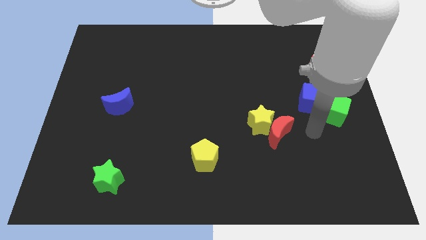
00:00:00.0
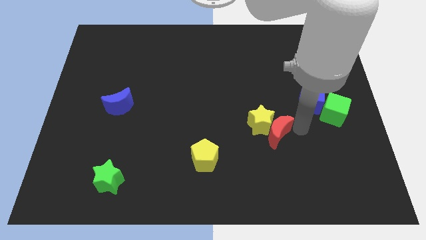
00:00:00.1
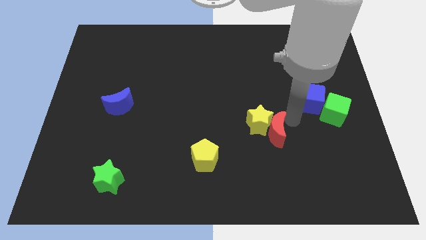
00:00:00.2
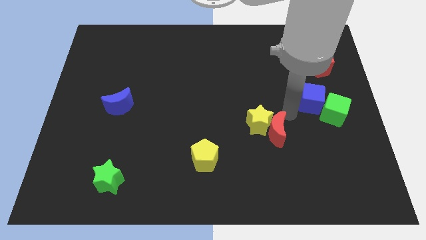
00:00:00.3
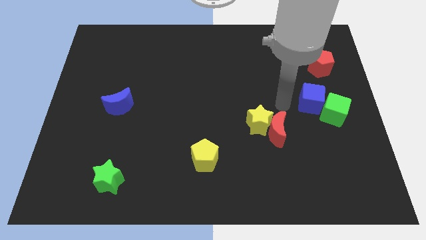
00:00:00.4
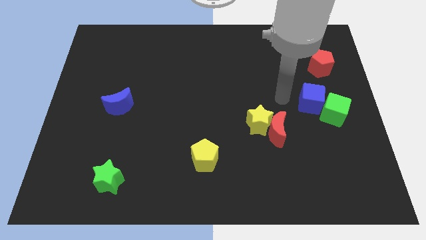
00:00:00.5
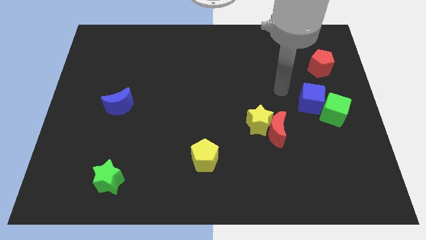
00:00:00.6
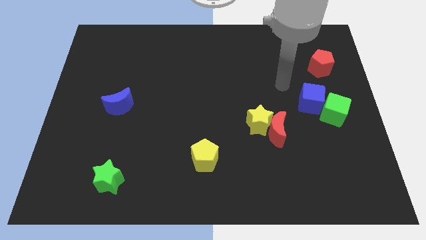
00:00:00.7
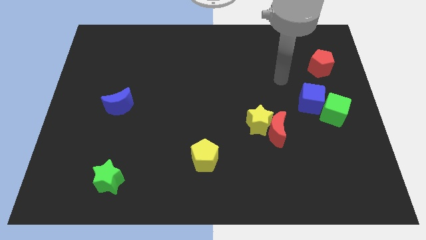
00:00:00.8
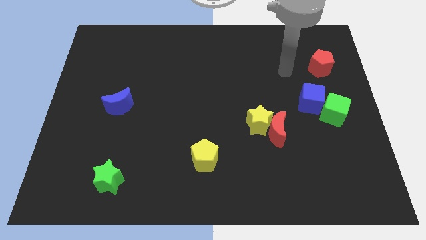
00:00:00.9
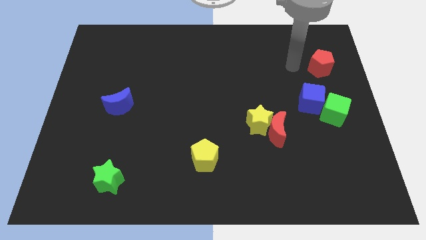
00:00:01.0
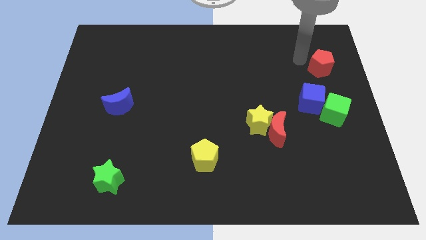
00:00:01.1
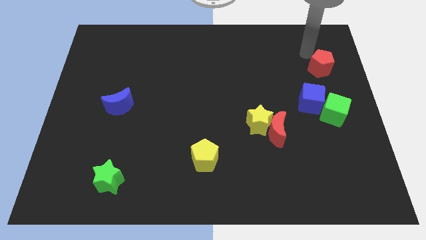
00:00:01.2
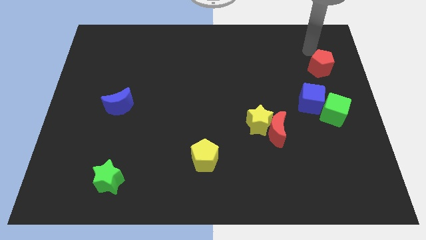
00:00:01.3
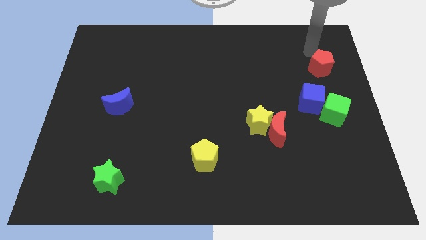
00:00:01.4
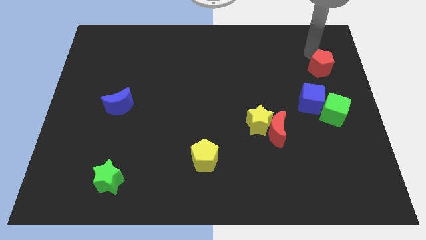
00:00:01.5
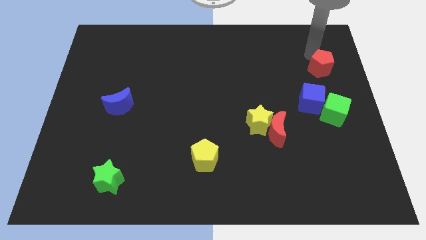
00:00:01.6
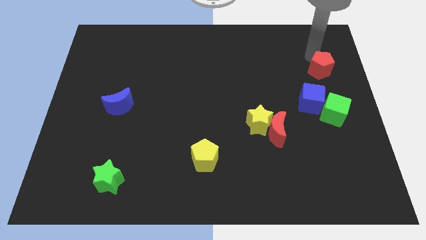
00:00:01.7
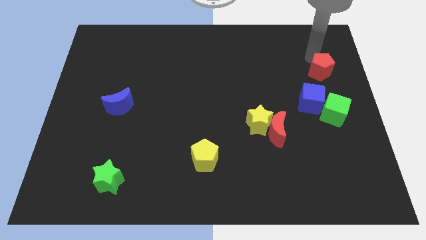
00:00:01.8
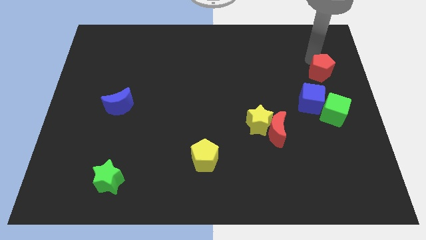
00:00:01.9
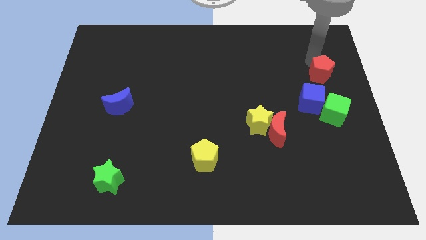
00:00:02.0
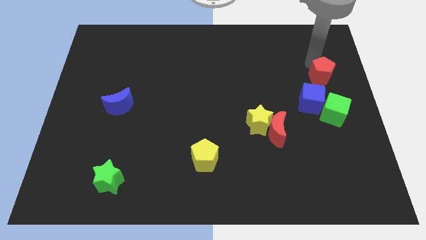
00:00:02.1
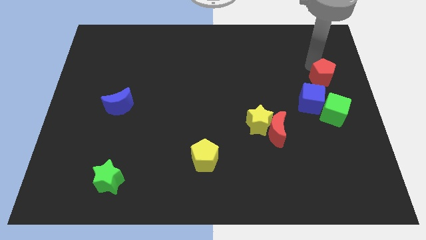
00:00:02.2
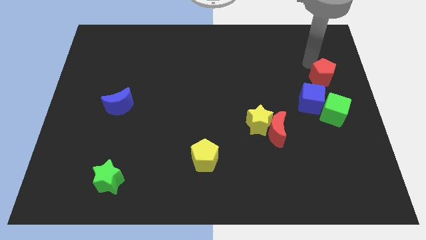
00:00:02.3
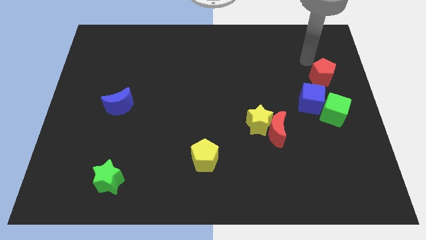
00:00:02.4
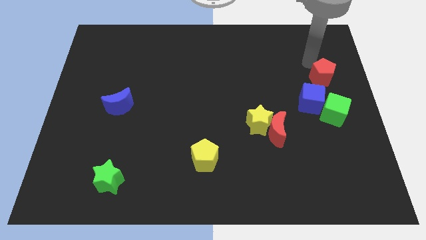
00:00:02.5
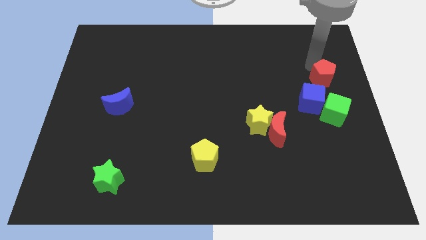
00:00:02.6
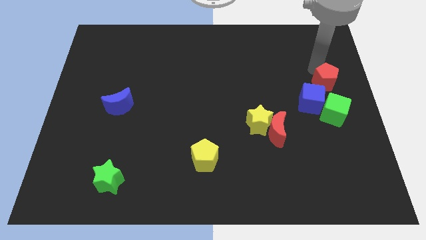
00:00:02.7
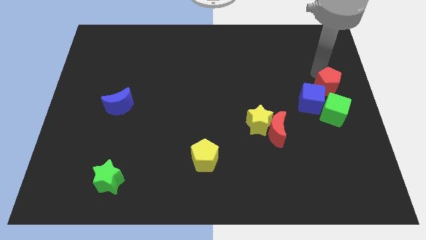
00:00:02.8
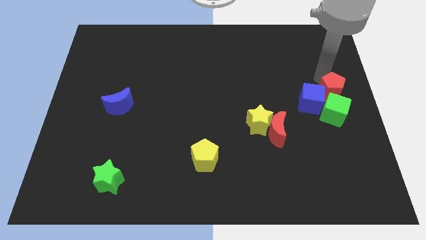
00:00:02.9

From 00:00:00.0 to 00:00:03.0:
push the red pentagon somewhat downwards

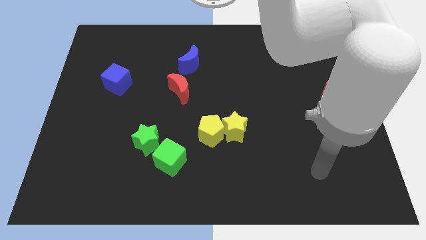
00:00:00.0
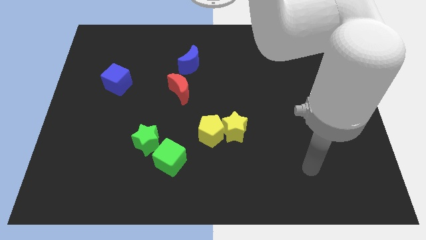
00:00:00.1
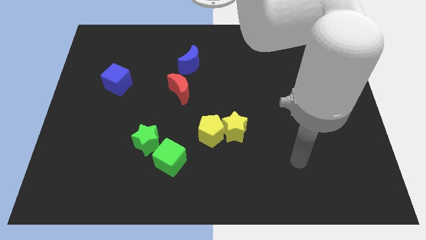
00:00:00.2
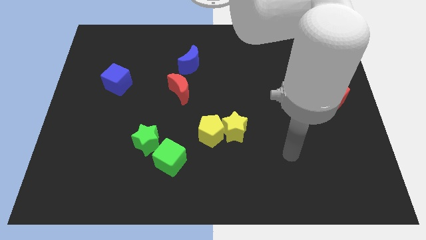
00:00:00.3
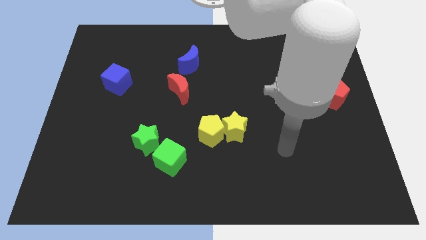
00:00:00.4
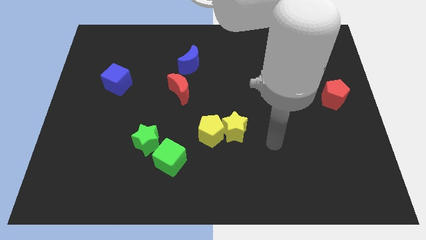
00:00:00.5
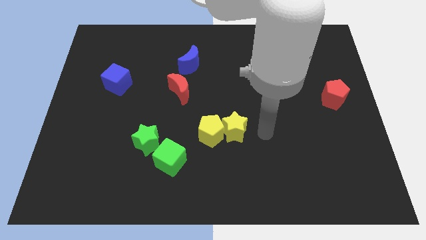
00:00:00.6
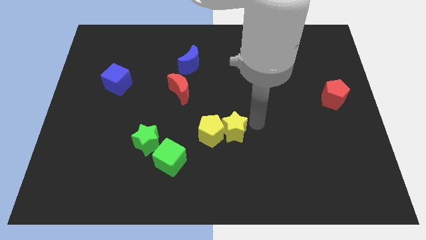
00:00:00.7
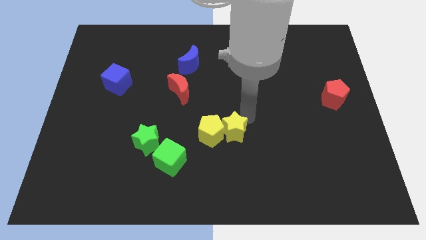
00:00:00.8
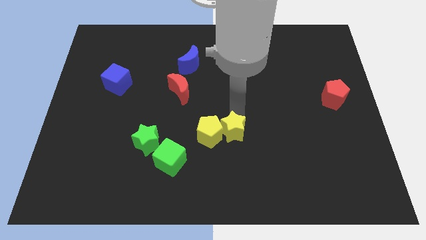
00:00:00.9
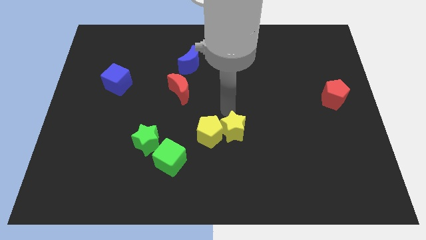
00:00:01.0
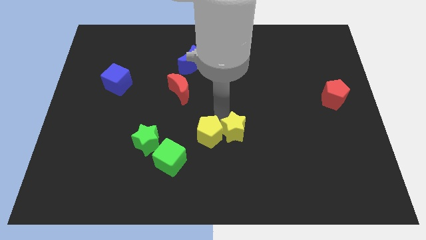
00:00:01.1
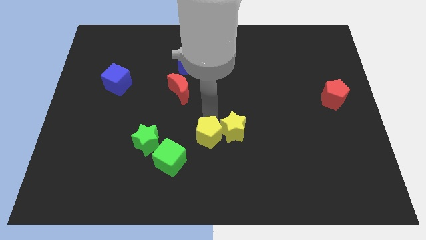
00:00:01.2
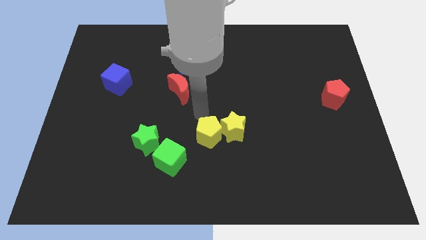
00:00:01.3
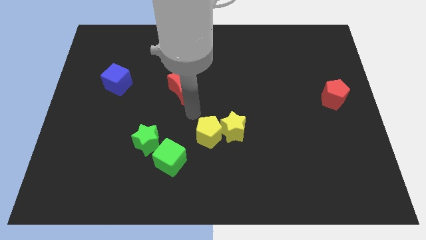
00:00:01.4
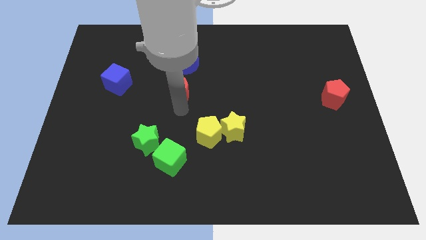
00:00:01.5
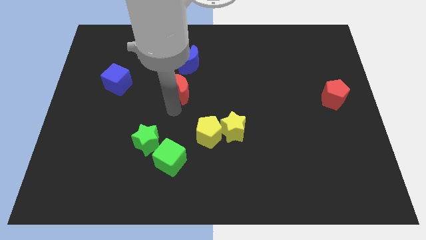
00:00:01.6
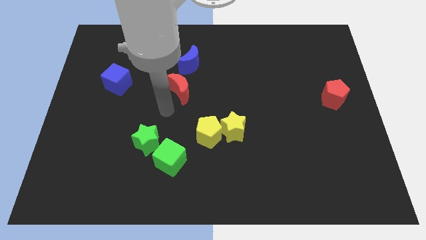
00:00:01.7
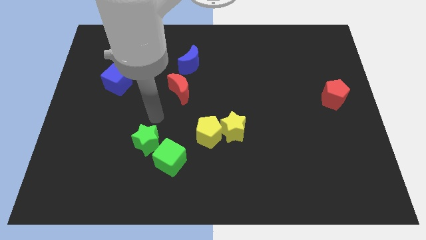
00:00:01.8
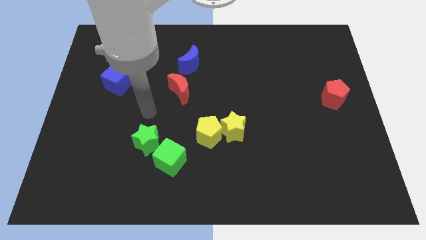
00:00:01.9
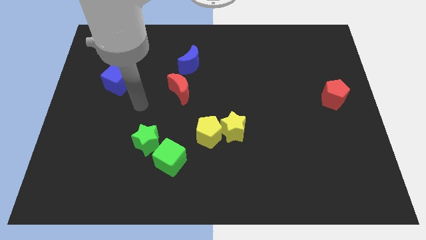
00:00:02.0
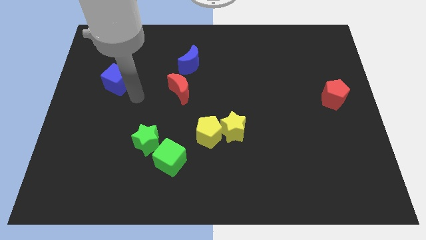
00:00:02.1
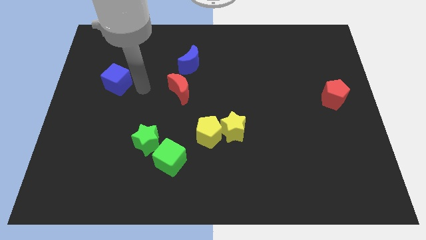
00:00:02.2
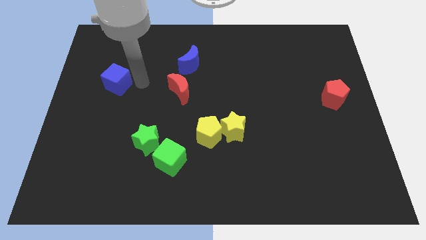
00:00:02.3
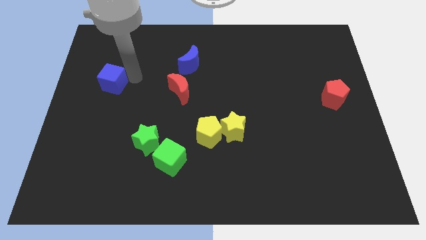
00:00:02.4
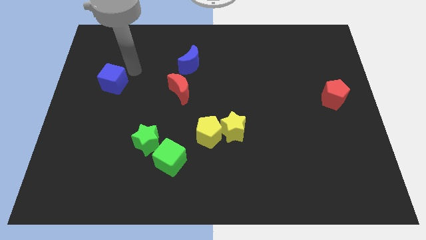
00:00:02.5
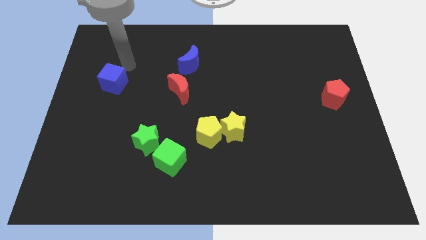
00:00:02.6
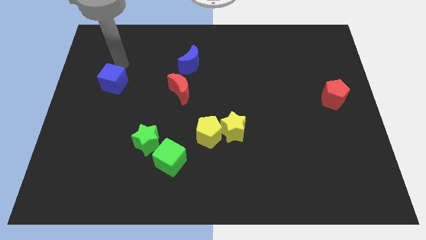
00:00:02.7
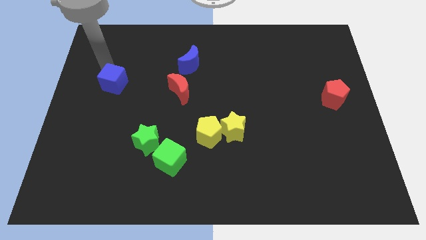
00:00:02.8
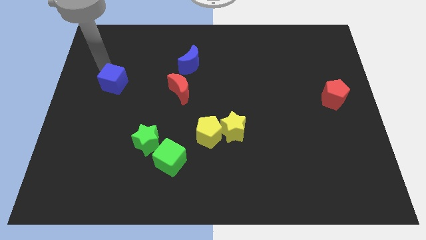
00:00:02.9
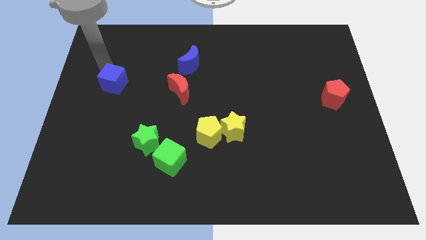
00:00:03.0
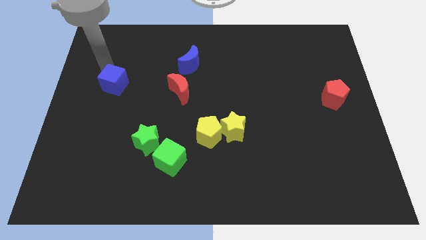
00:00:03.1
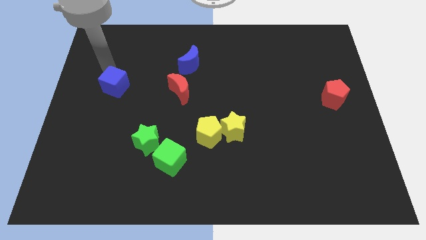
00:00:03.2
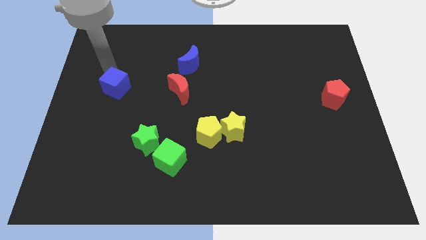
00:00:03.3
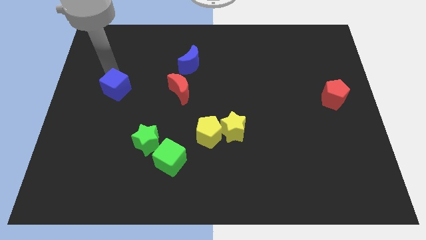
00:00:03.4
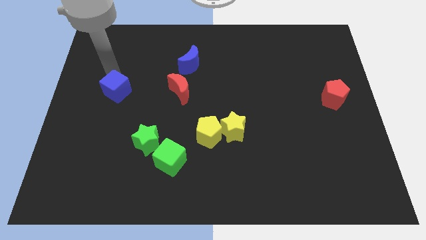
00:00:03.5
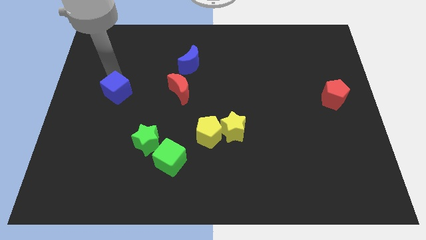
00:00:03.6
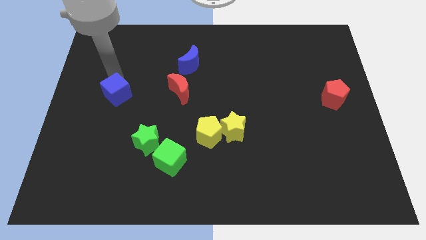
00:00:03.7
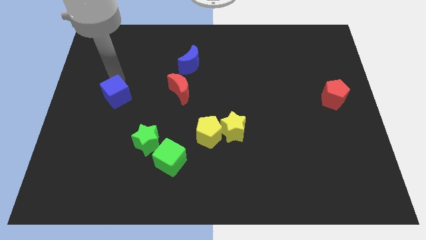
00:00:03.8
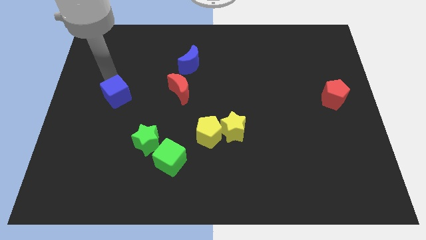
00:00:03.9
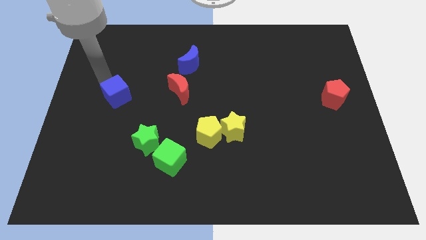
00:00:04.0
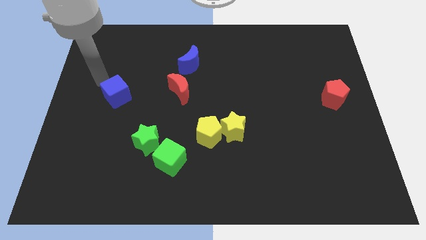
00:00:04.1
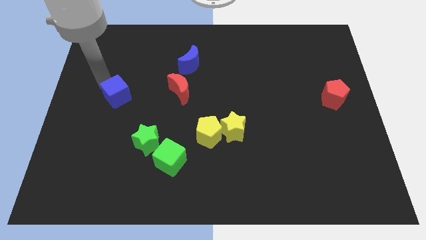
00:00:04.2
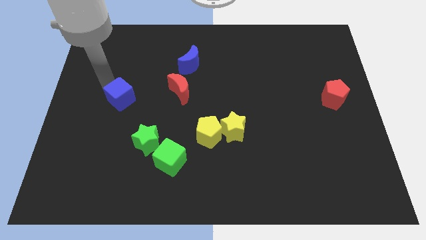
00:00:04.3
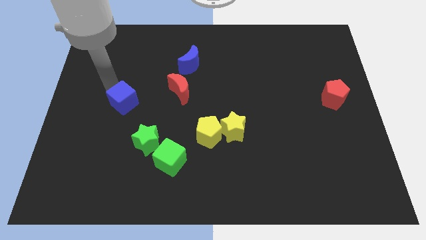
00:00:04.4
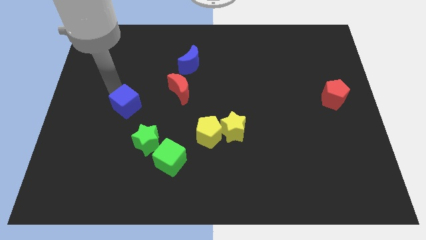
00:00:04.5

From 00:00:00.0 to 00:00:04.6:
slide the blue cube somewhat downwards and then to the right
